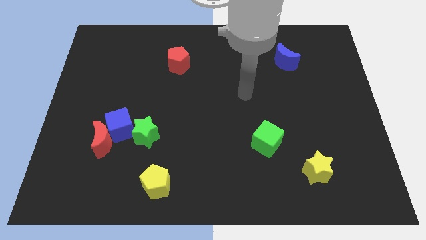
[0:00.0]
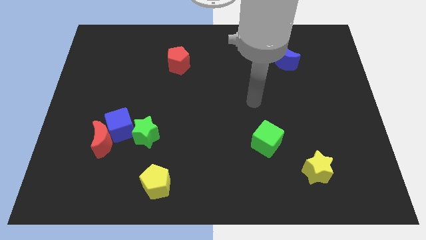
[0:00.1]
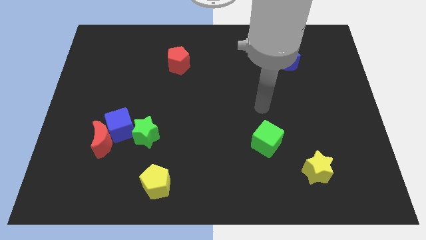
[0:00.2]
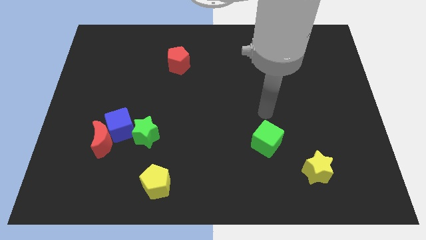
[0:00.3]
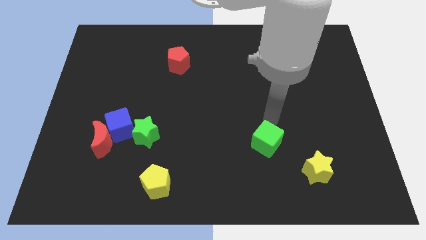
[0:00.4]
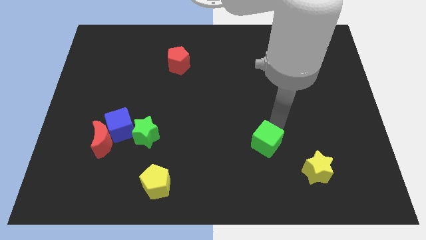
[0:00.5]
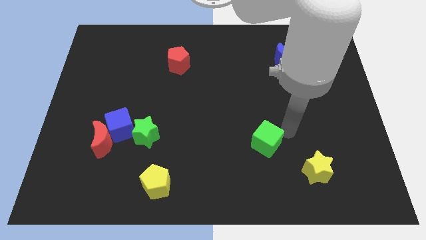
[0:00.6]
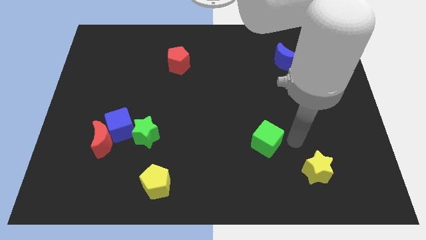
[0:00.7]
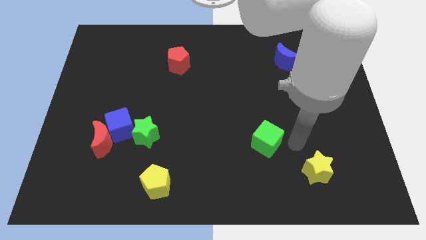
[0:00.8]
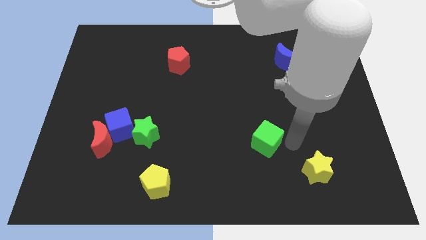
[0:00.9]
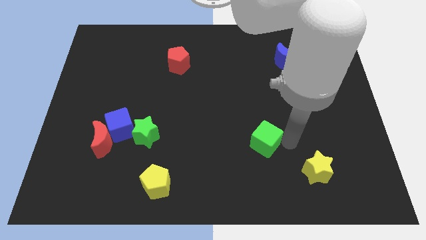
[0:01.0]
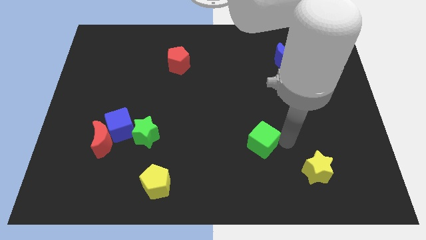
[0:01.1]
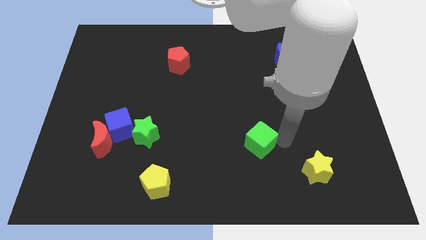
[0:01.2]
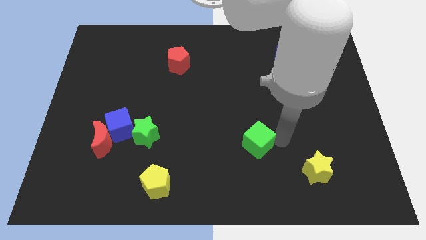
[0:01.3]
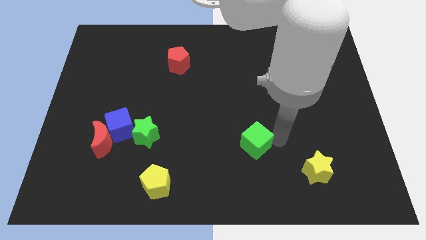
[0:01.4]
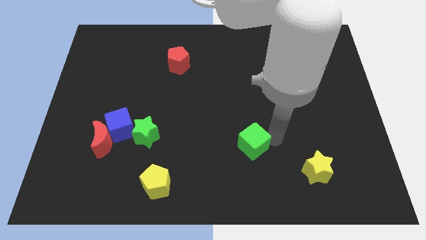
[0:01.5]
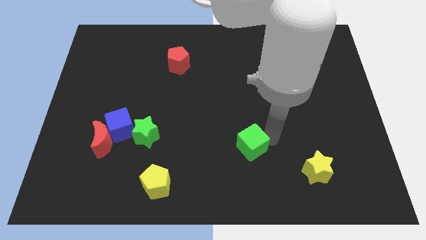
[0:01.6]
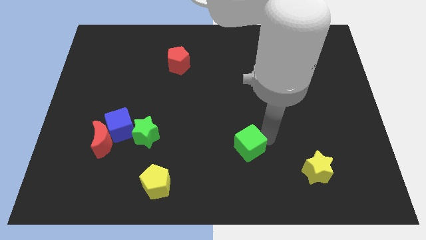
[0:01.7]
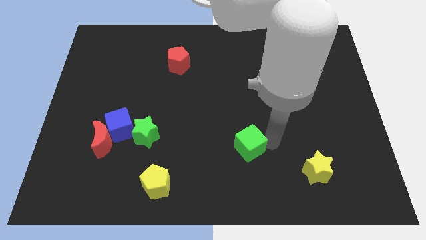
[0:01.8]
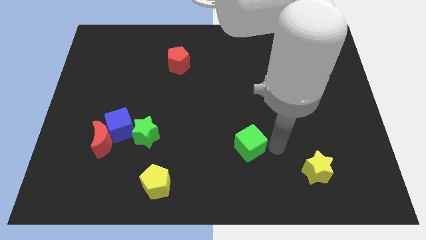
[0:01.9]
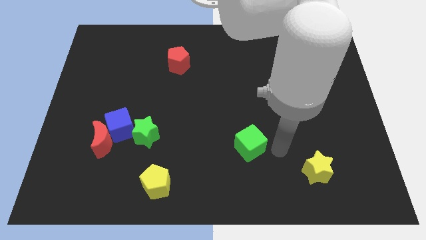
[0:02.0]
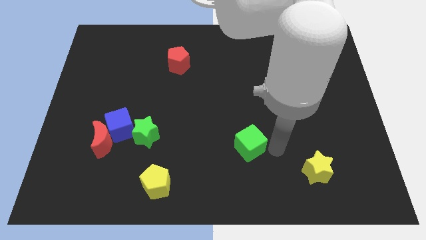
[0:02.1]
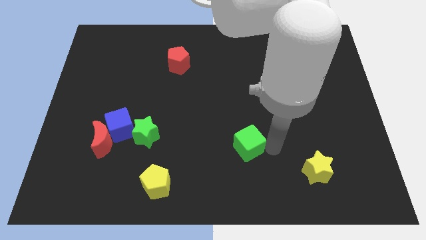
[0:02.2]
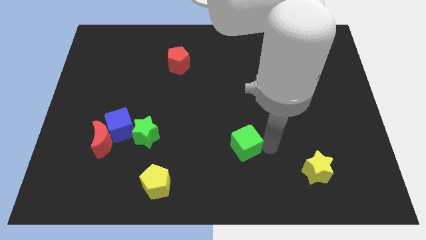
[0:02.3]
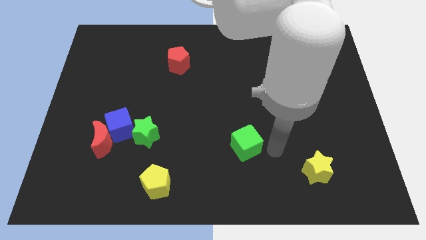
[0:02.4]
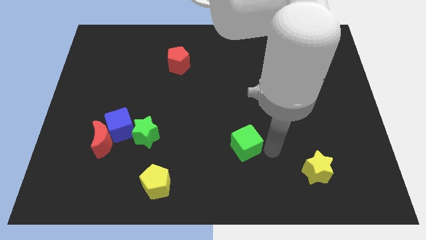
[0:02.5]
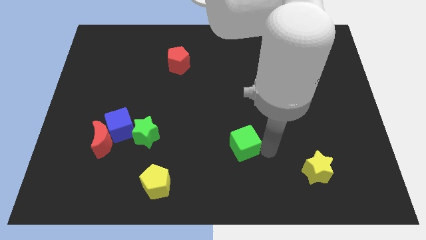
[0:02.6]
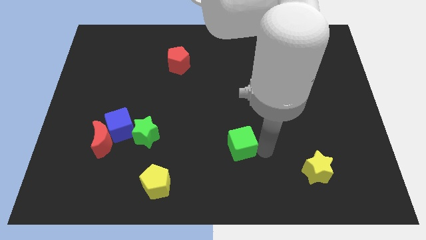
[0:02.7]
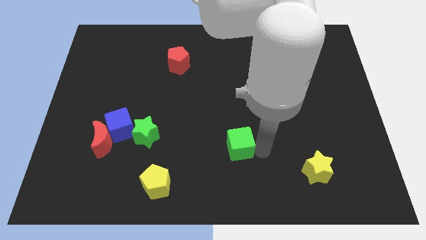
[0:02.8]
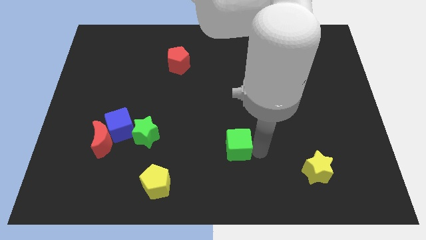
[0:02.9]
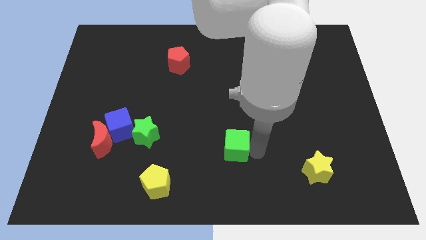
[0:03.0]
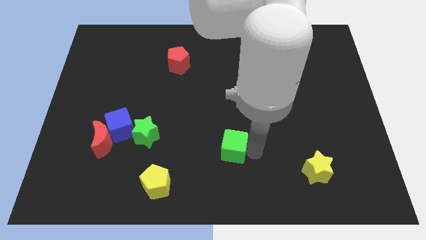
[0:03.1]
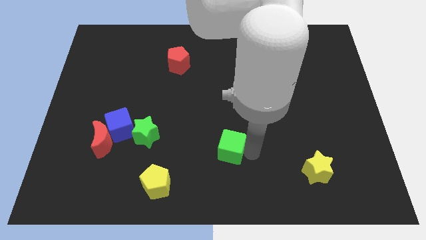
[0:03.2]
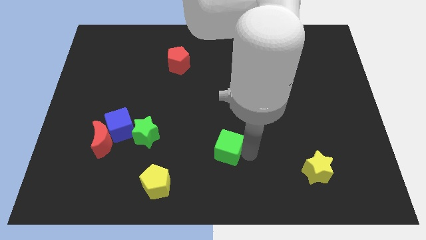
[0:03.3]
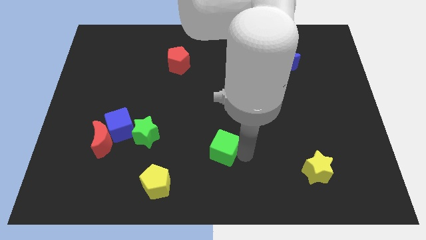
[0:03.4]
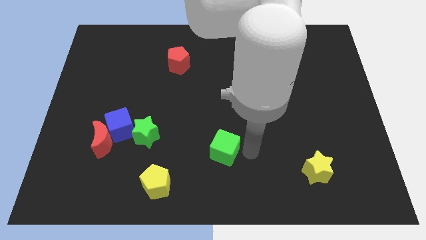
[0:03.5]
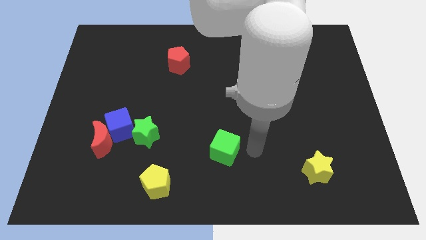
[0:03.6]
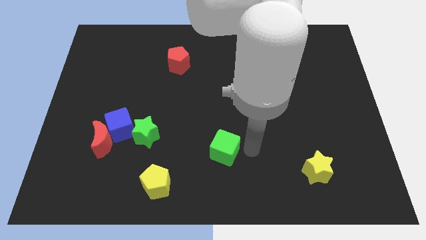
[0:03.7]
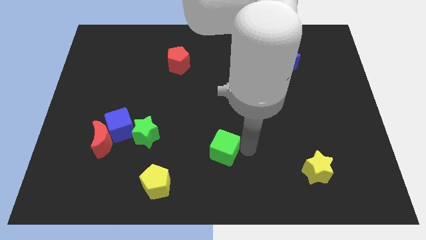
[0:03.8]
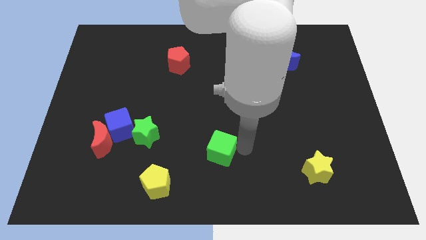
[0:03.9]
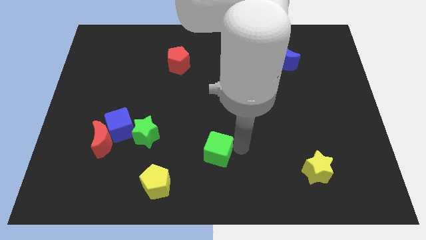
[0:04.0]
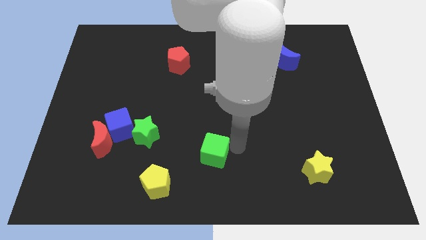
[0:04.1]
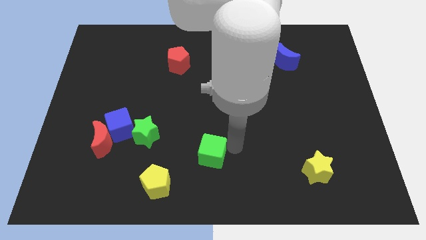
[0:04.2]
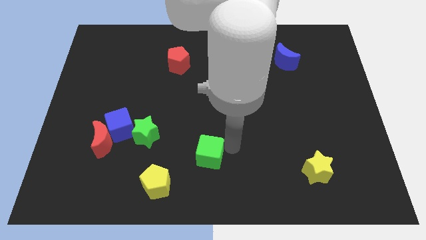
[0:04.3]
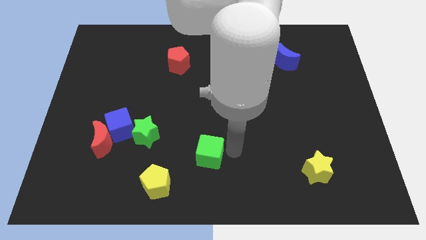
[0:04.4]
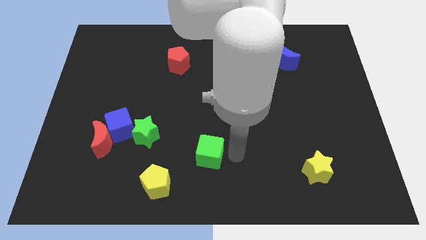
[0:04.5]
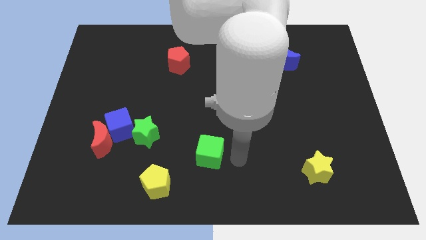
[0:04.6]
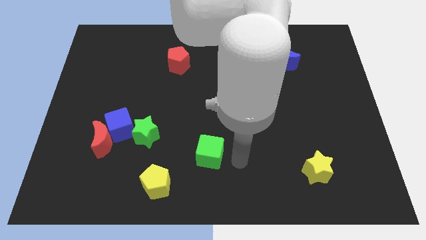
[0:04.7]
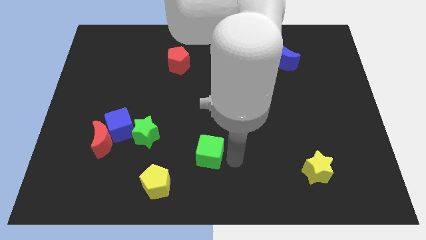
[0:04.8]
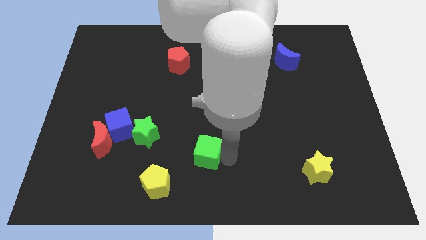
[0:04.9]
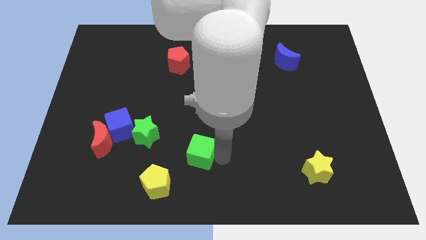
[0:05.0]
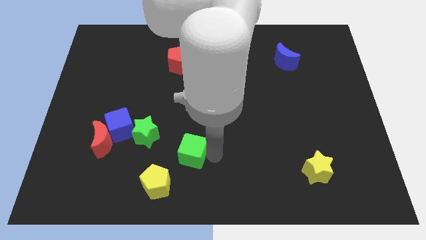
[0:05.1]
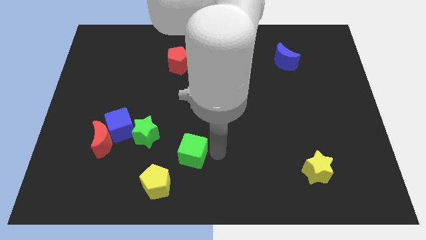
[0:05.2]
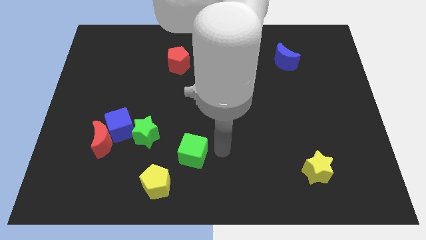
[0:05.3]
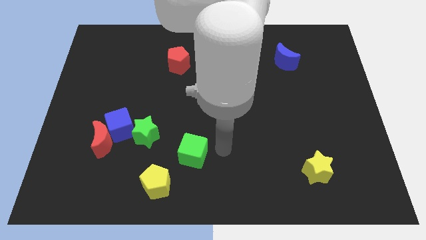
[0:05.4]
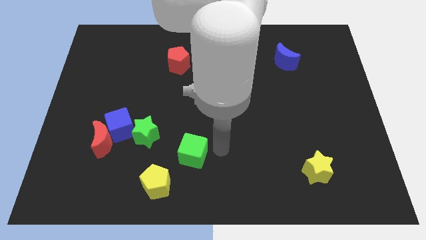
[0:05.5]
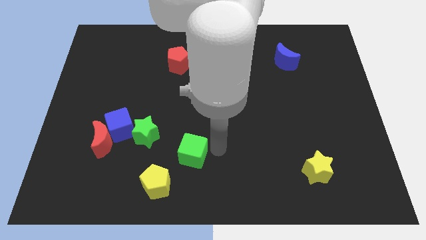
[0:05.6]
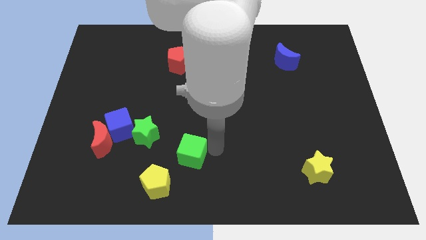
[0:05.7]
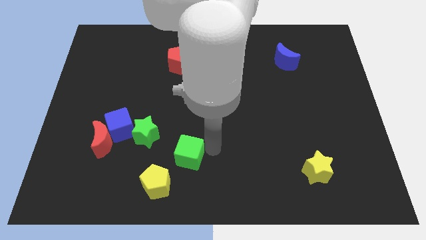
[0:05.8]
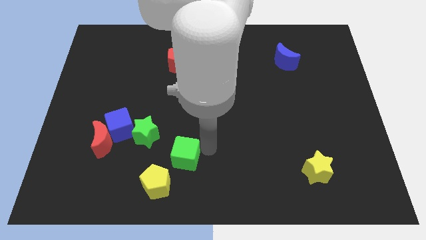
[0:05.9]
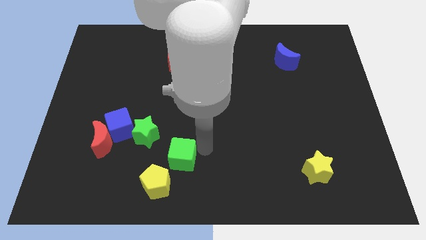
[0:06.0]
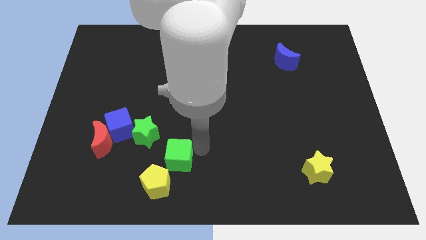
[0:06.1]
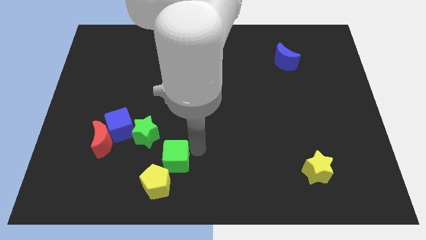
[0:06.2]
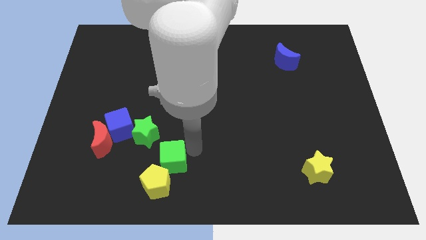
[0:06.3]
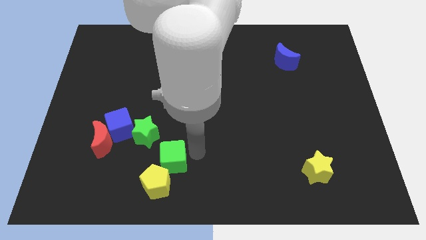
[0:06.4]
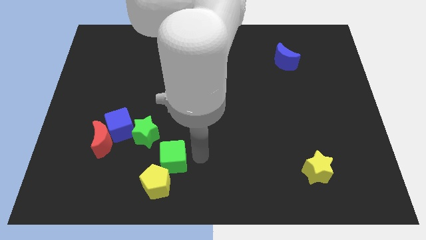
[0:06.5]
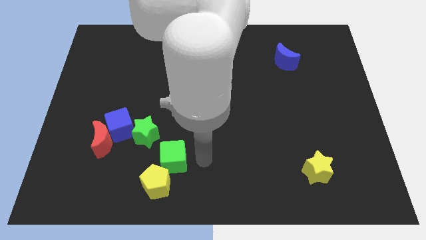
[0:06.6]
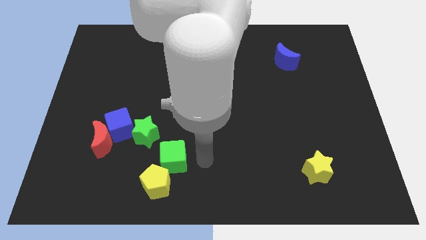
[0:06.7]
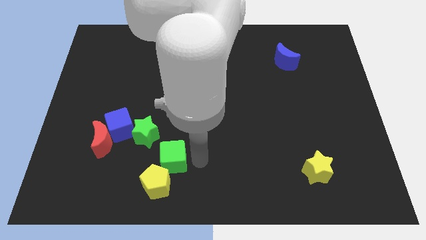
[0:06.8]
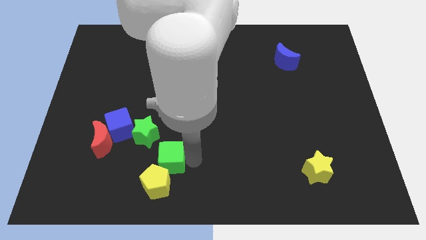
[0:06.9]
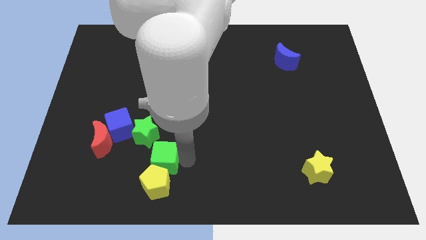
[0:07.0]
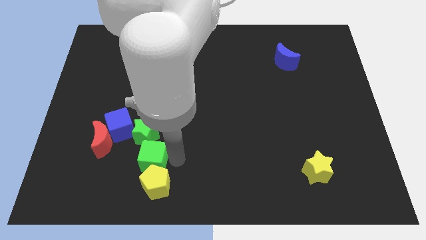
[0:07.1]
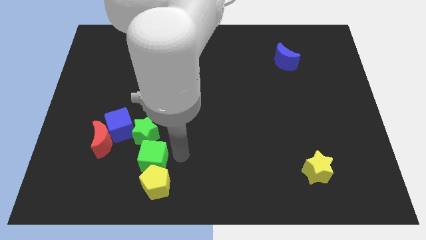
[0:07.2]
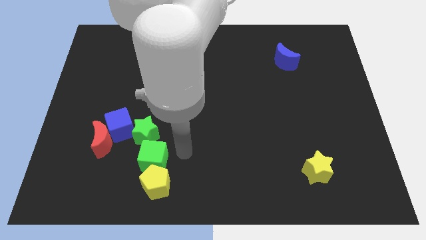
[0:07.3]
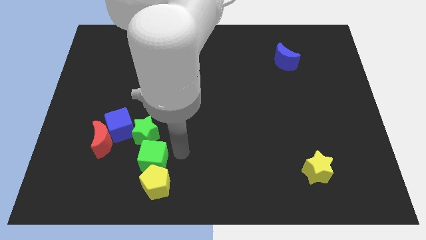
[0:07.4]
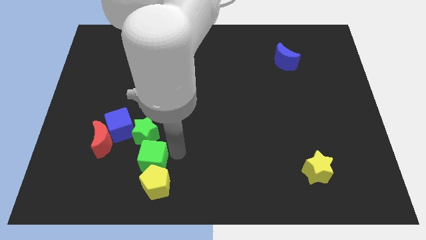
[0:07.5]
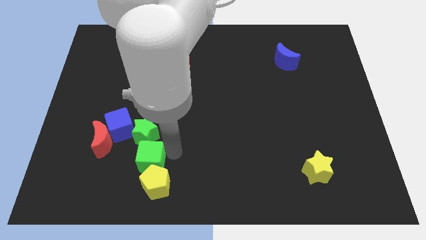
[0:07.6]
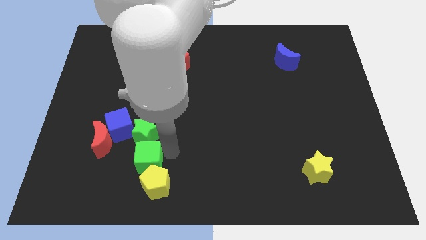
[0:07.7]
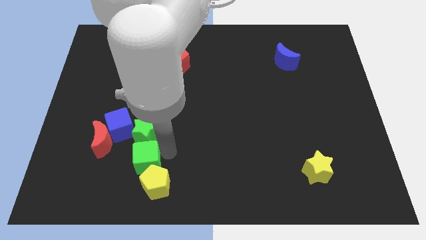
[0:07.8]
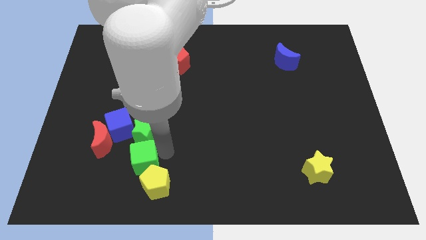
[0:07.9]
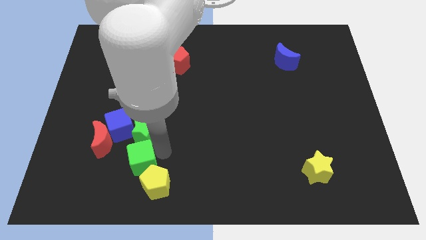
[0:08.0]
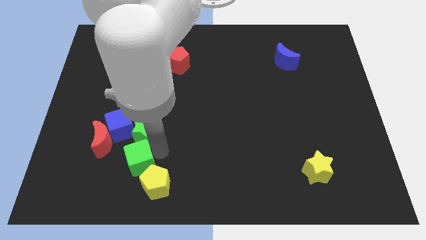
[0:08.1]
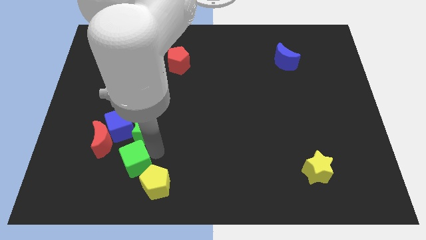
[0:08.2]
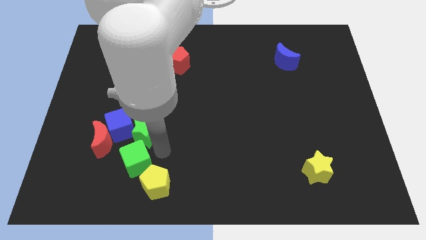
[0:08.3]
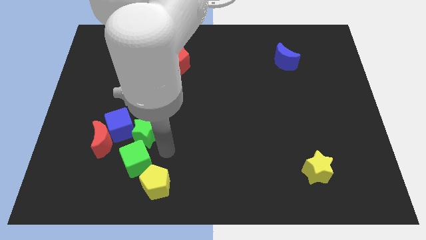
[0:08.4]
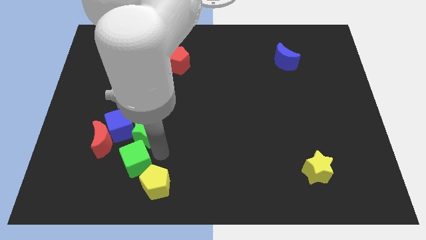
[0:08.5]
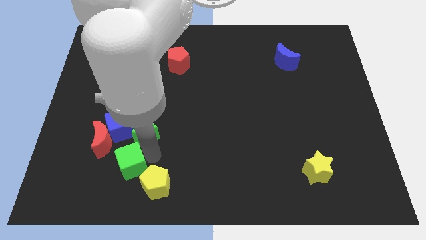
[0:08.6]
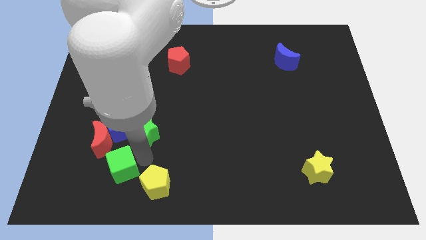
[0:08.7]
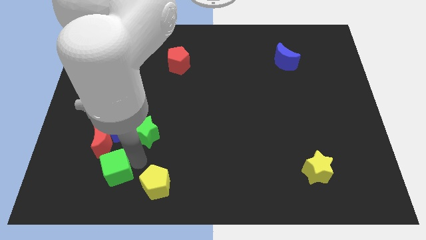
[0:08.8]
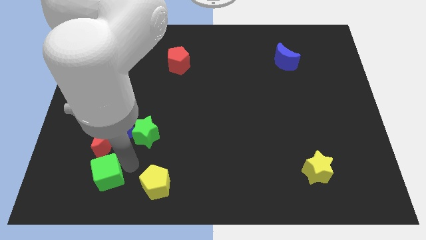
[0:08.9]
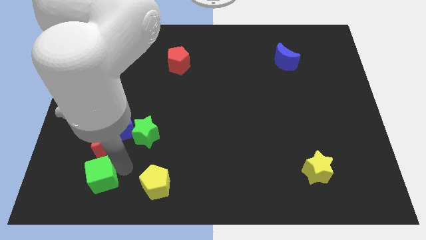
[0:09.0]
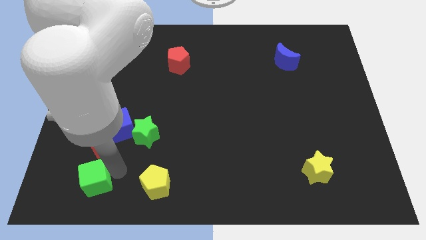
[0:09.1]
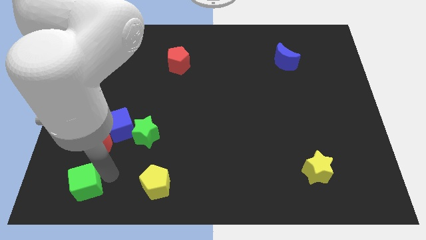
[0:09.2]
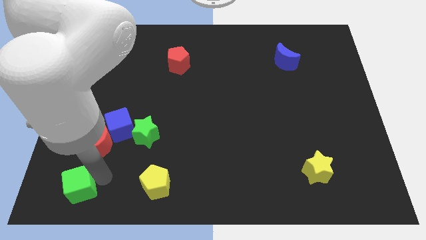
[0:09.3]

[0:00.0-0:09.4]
put the green cube to the bottom left
